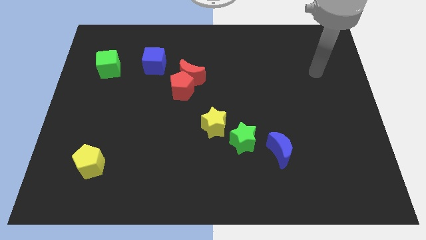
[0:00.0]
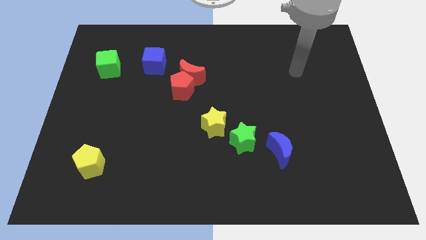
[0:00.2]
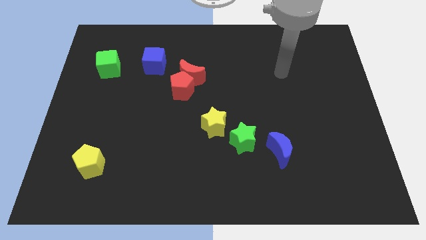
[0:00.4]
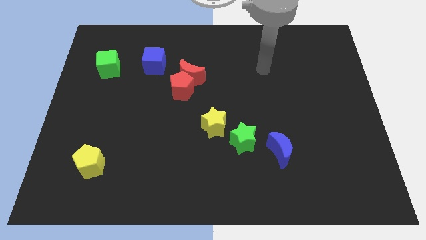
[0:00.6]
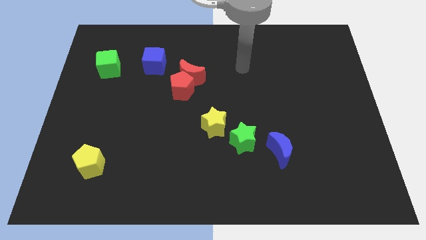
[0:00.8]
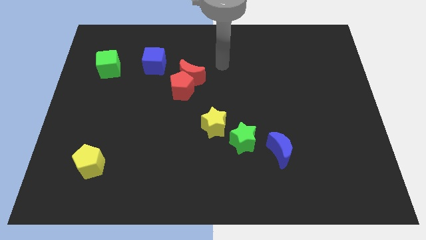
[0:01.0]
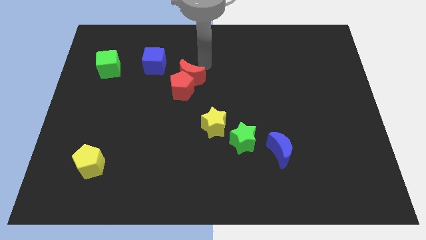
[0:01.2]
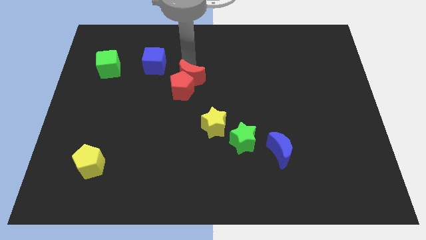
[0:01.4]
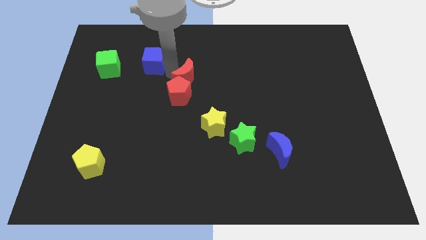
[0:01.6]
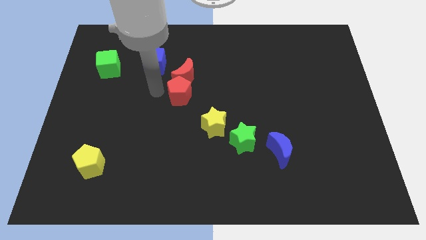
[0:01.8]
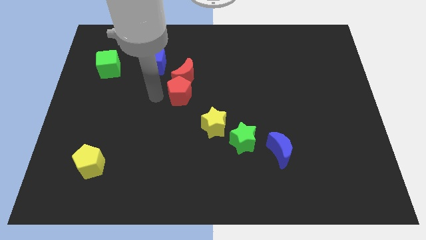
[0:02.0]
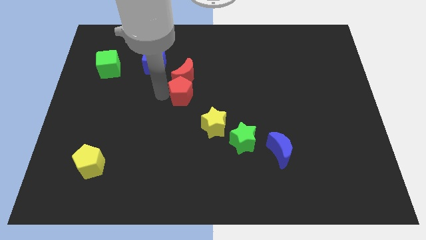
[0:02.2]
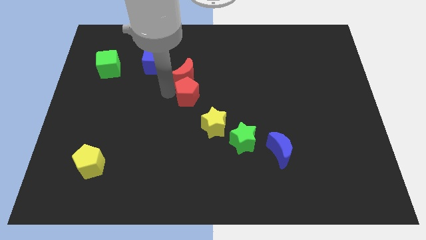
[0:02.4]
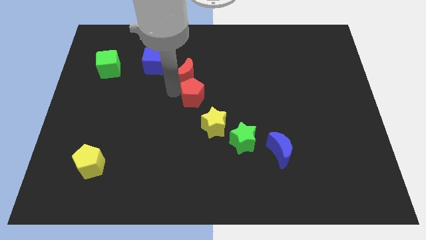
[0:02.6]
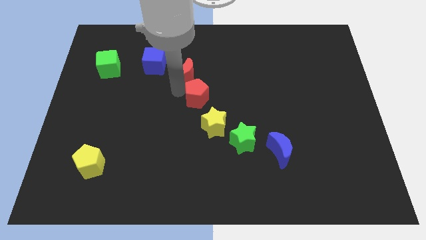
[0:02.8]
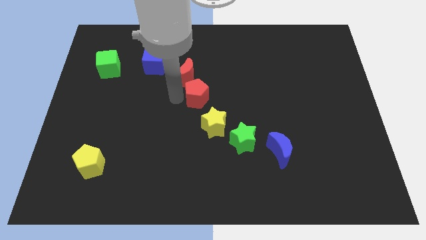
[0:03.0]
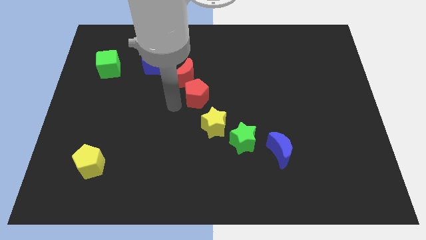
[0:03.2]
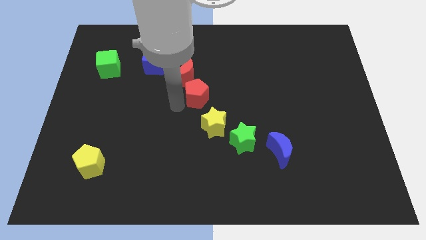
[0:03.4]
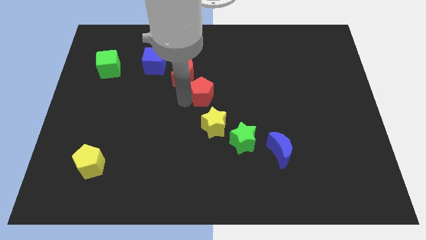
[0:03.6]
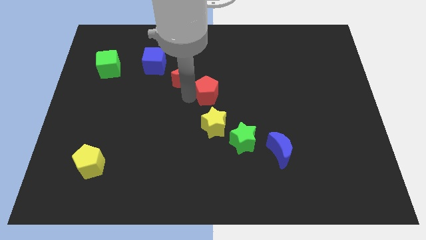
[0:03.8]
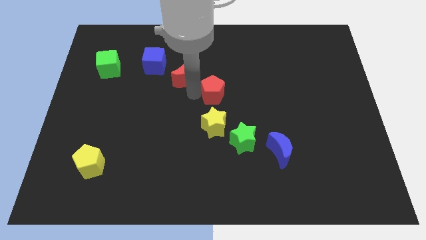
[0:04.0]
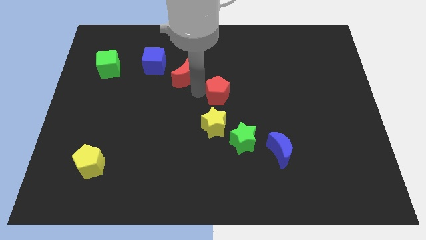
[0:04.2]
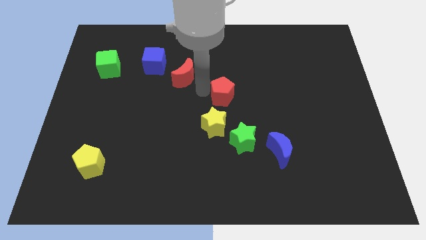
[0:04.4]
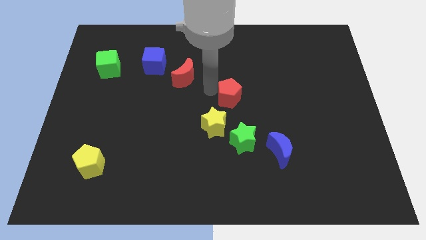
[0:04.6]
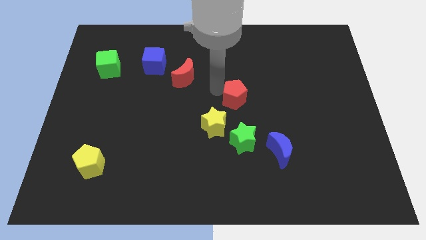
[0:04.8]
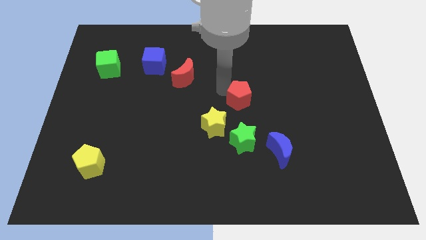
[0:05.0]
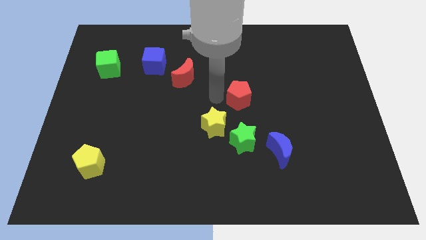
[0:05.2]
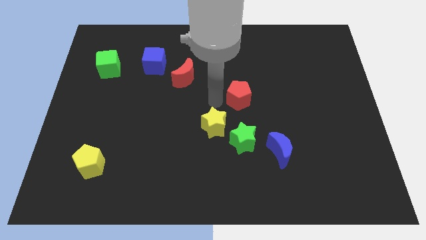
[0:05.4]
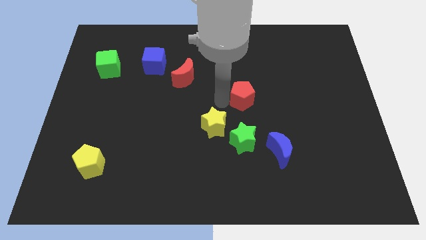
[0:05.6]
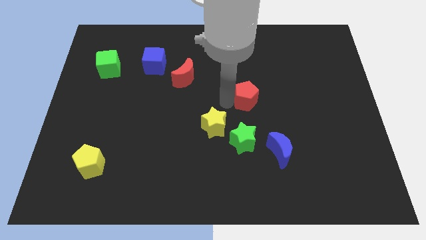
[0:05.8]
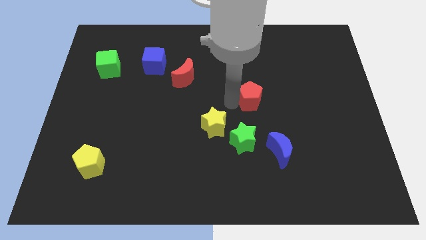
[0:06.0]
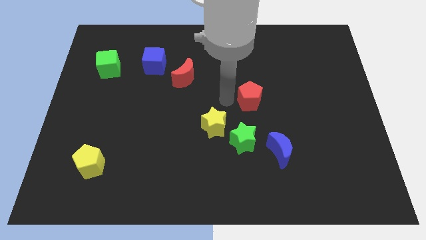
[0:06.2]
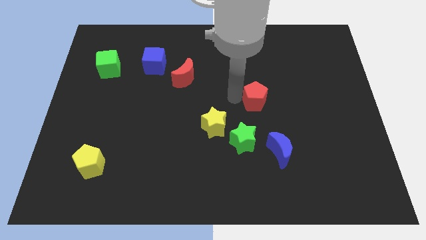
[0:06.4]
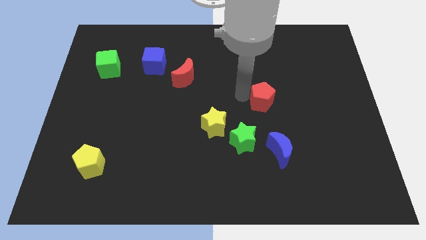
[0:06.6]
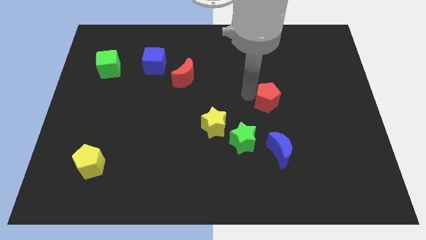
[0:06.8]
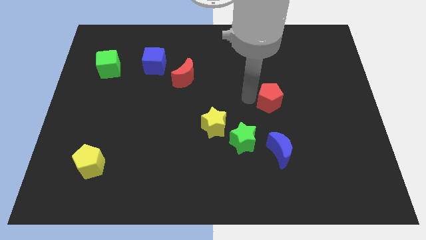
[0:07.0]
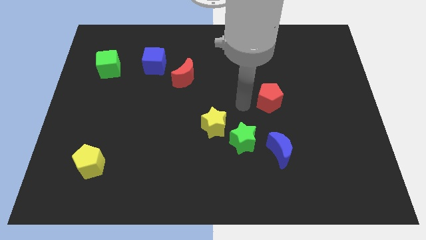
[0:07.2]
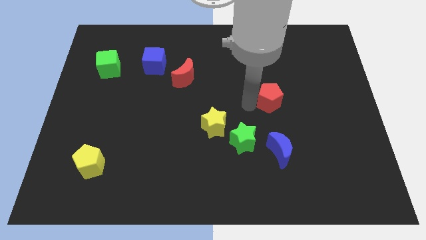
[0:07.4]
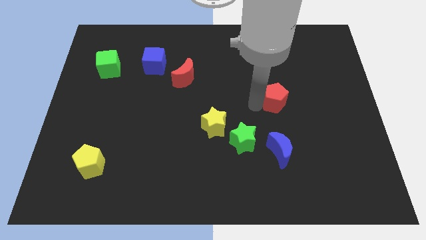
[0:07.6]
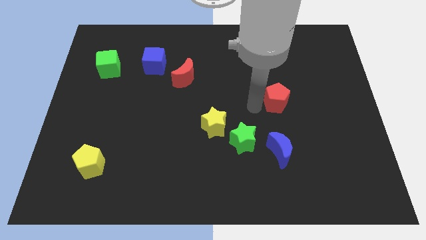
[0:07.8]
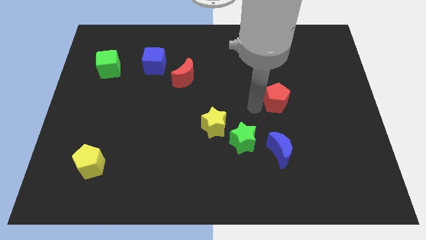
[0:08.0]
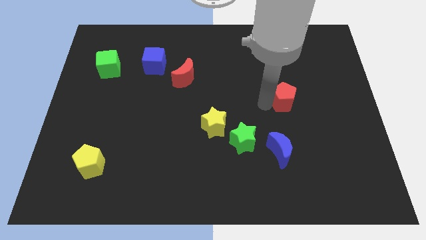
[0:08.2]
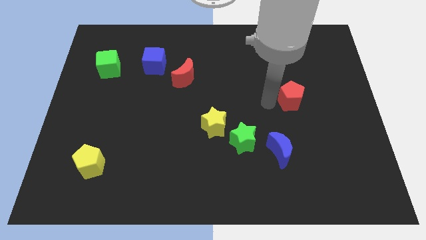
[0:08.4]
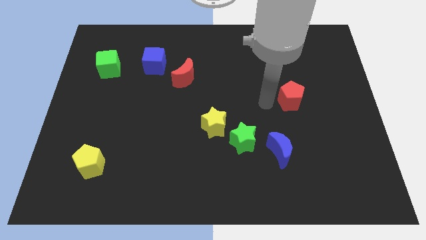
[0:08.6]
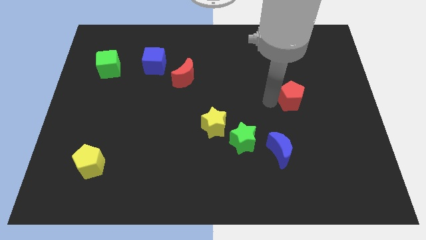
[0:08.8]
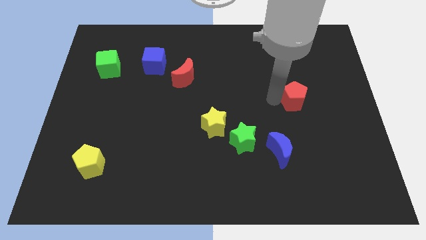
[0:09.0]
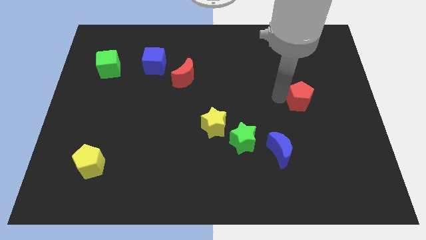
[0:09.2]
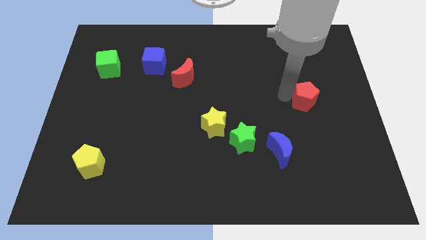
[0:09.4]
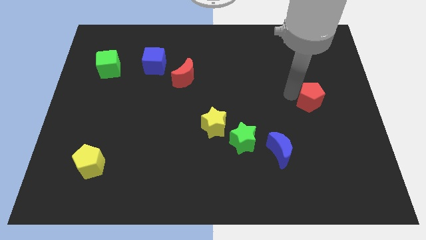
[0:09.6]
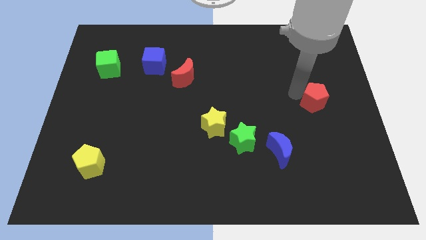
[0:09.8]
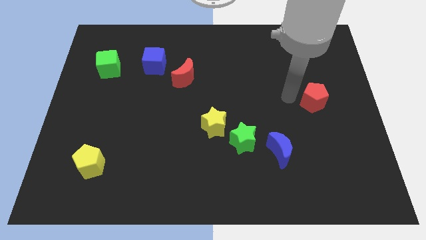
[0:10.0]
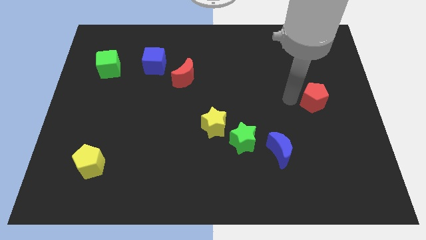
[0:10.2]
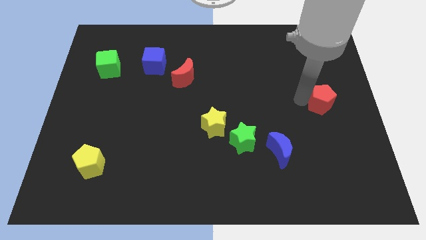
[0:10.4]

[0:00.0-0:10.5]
slide the red pentagon to the right side of the board
